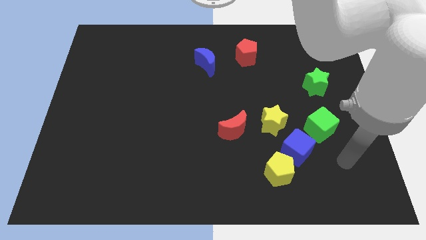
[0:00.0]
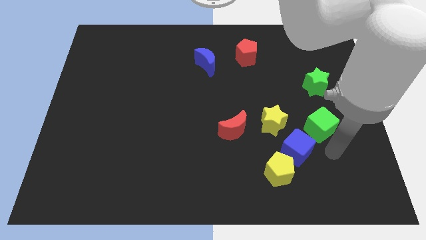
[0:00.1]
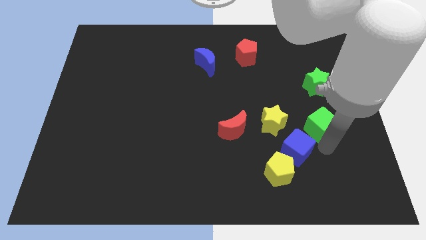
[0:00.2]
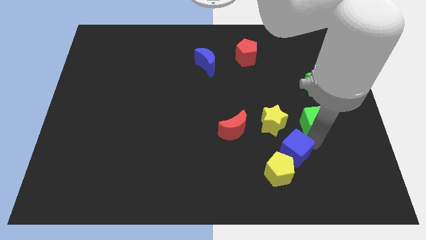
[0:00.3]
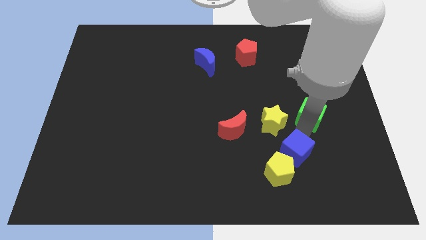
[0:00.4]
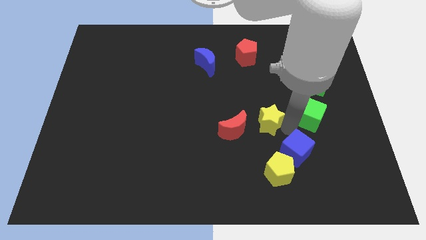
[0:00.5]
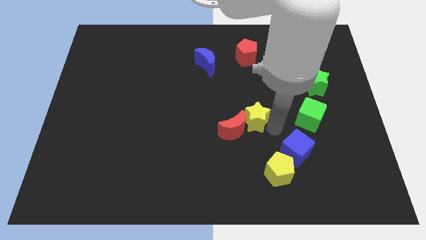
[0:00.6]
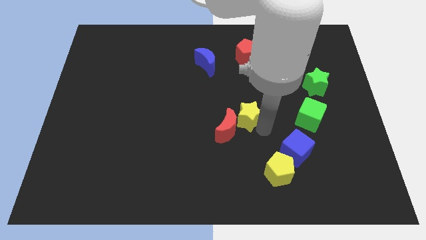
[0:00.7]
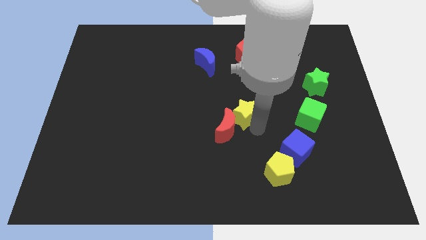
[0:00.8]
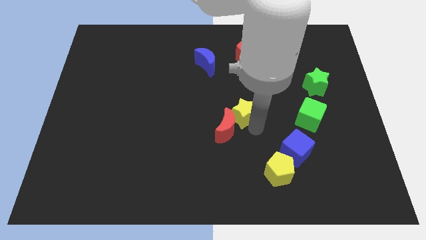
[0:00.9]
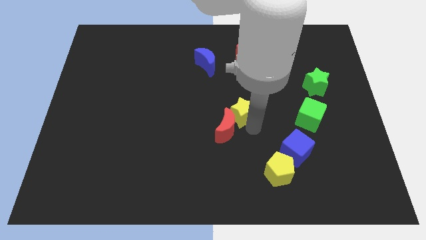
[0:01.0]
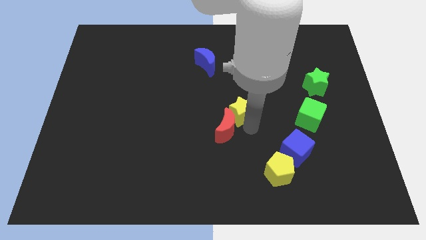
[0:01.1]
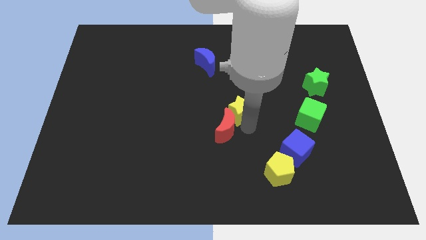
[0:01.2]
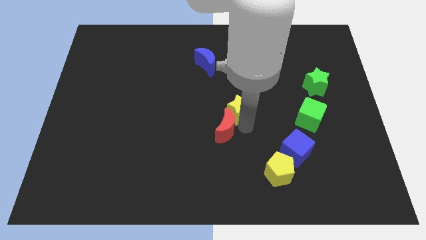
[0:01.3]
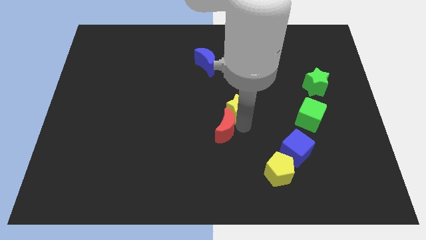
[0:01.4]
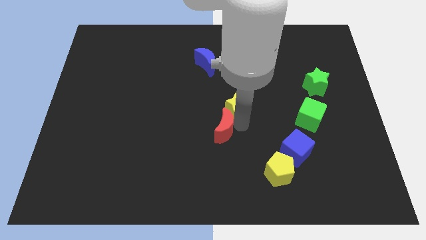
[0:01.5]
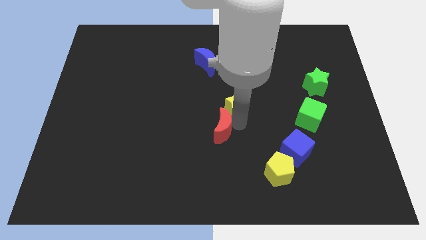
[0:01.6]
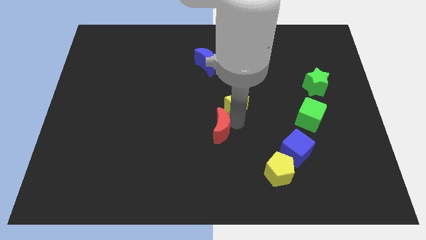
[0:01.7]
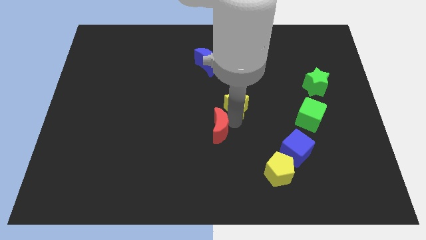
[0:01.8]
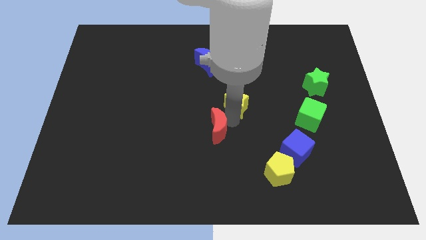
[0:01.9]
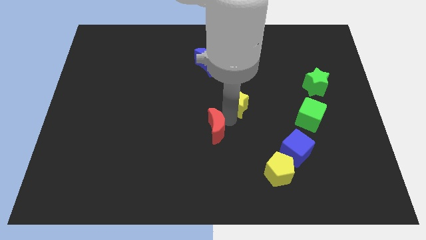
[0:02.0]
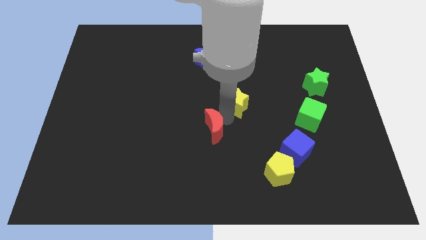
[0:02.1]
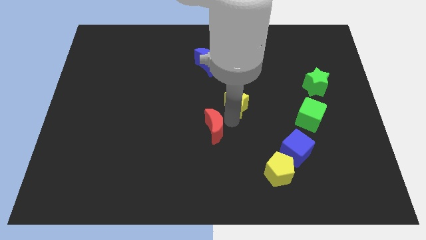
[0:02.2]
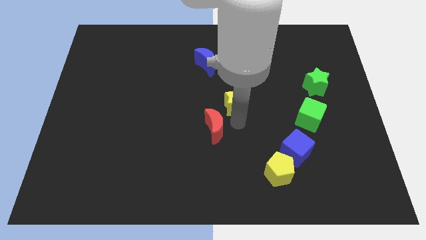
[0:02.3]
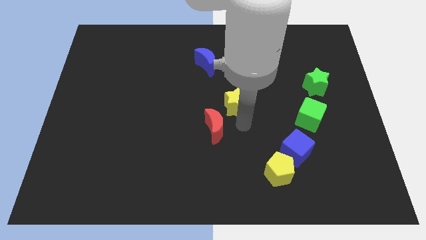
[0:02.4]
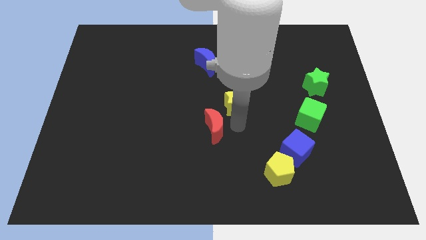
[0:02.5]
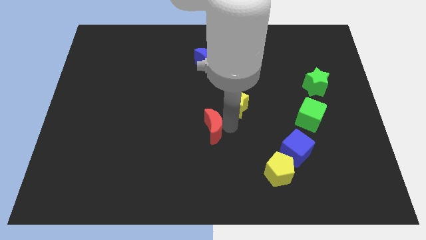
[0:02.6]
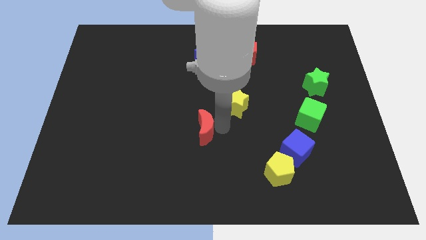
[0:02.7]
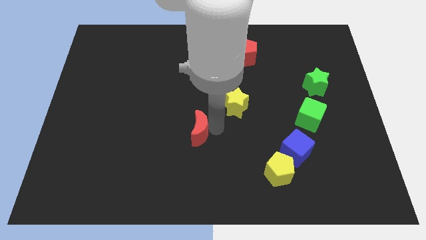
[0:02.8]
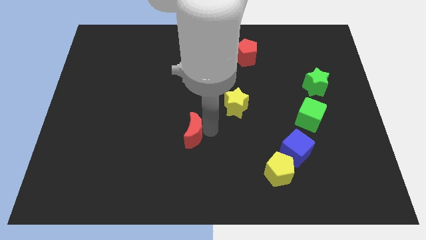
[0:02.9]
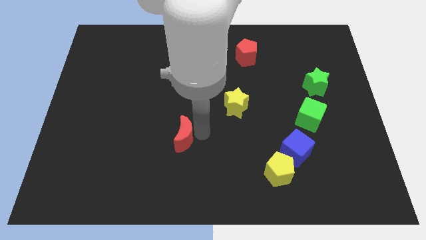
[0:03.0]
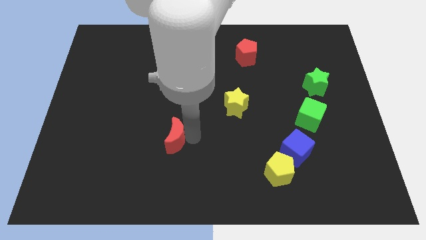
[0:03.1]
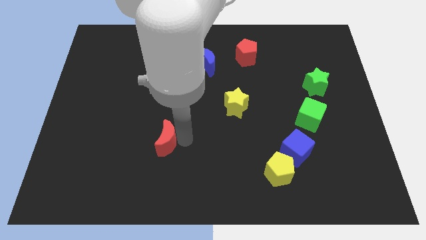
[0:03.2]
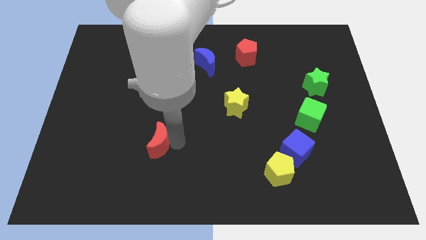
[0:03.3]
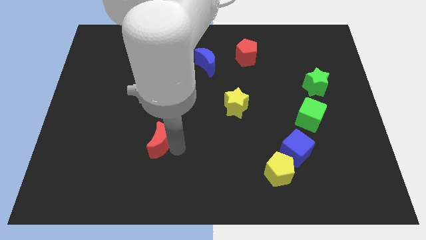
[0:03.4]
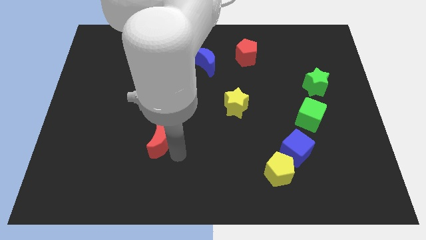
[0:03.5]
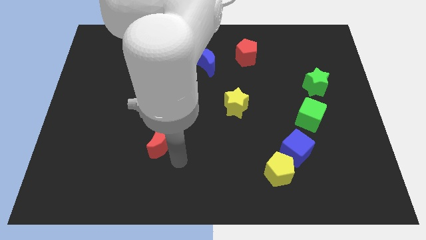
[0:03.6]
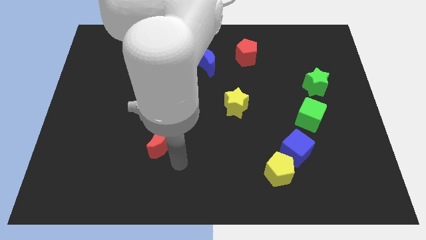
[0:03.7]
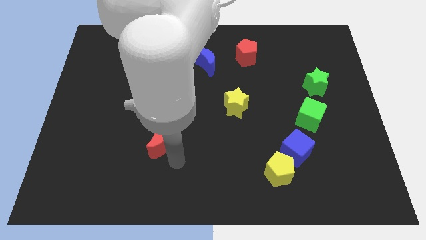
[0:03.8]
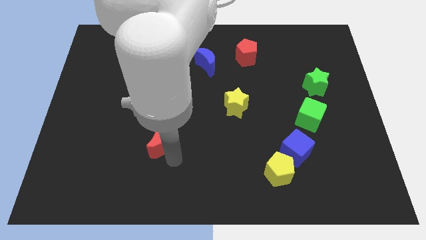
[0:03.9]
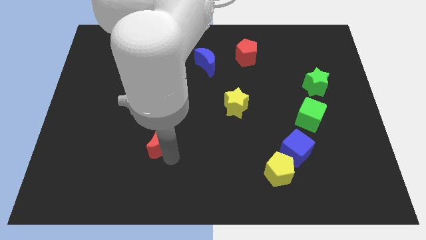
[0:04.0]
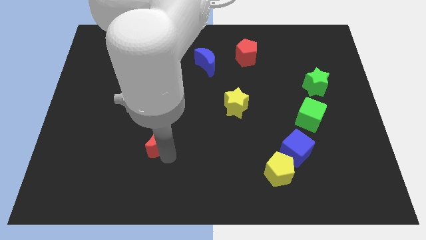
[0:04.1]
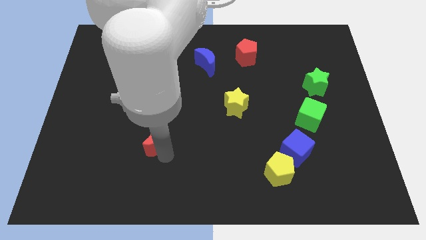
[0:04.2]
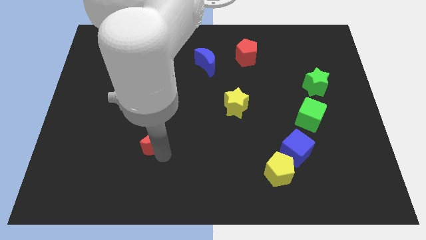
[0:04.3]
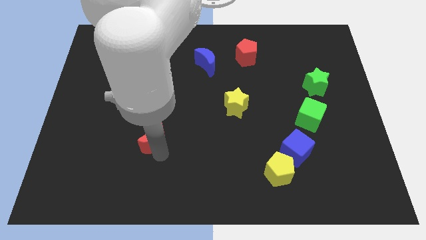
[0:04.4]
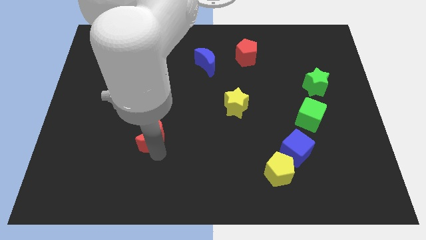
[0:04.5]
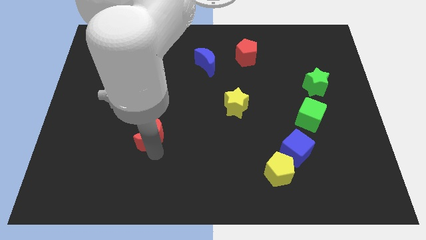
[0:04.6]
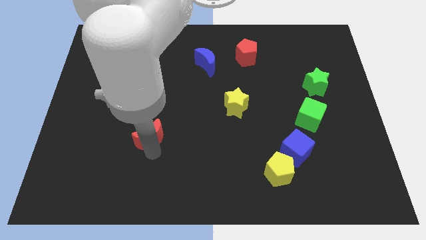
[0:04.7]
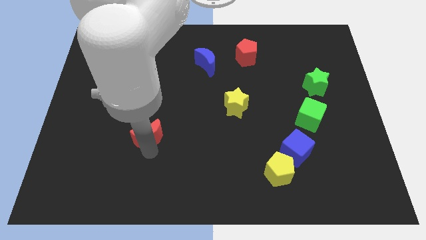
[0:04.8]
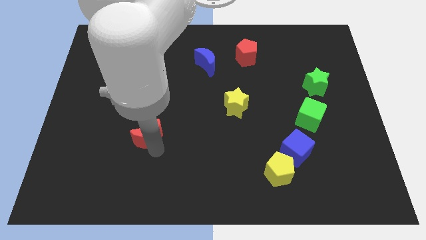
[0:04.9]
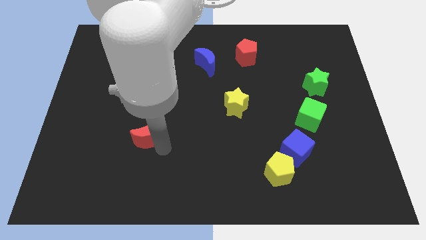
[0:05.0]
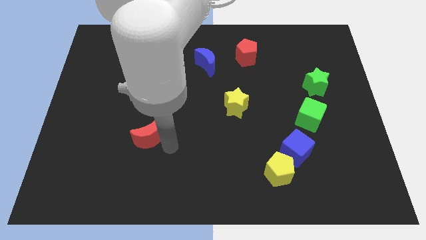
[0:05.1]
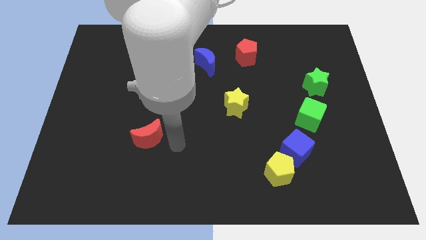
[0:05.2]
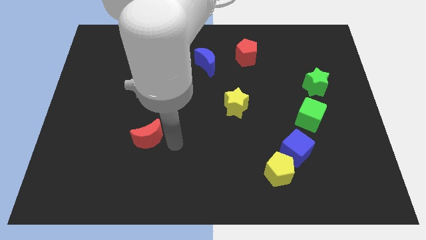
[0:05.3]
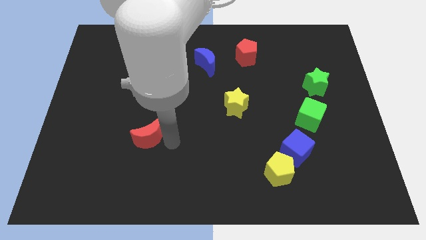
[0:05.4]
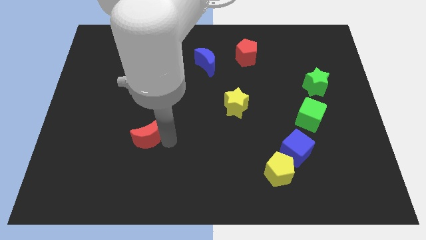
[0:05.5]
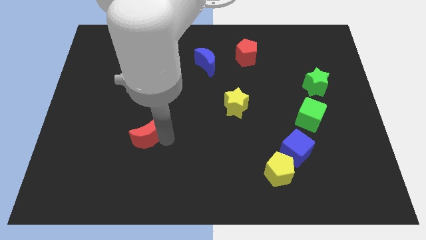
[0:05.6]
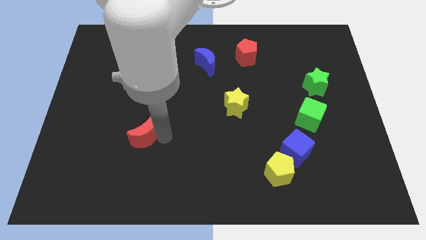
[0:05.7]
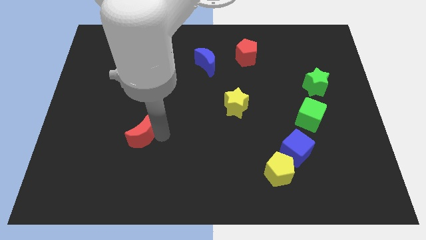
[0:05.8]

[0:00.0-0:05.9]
slide the red moon to the left

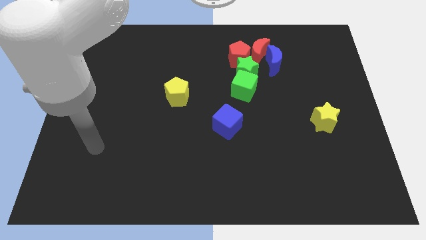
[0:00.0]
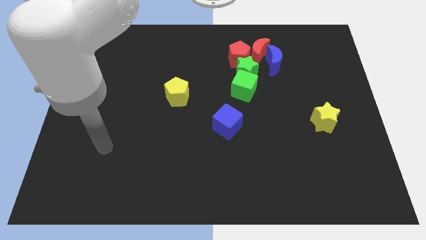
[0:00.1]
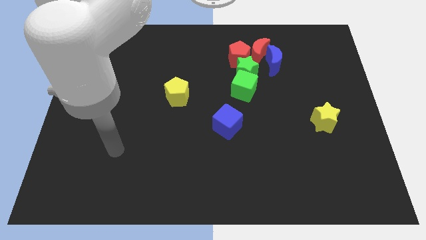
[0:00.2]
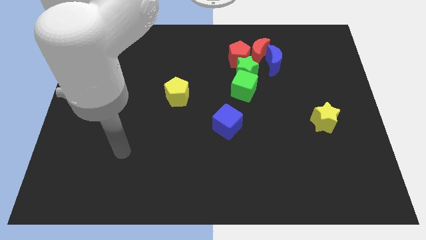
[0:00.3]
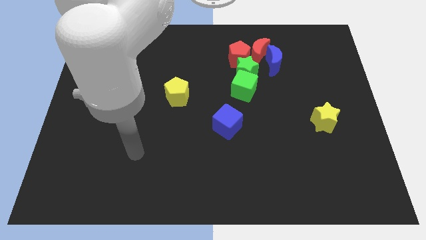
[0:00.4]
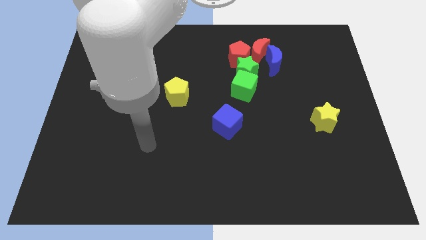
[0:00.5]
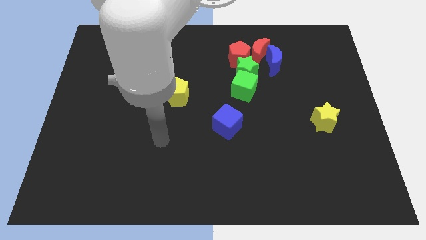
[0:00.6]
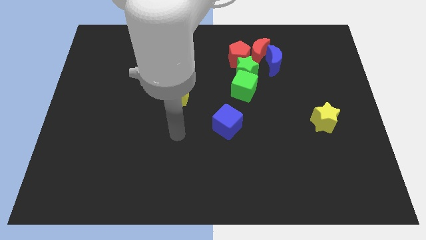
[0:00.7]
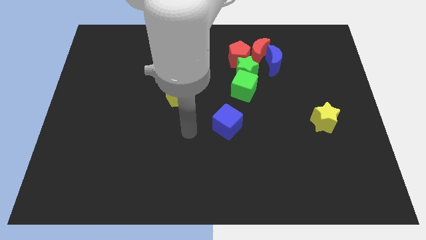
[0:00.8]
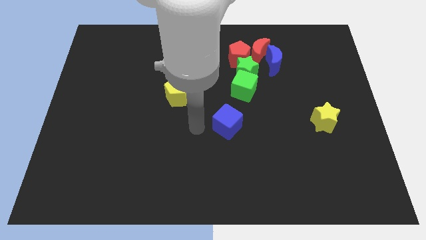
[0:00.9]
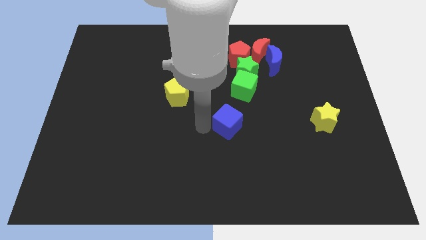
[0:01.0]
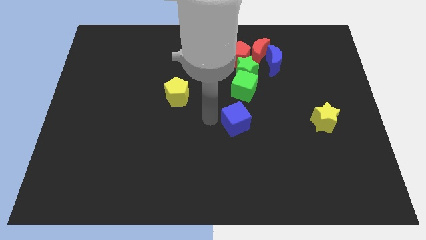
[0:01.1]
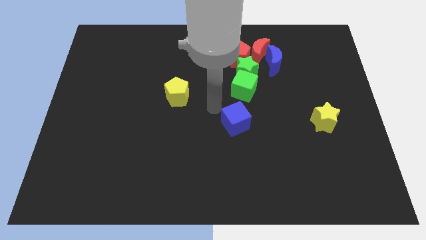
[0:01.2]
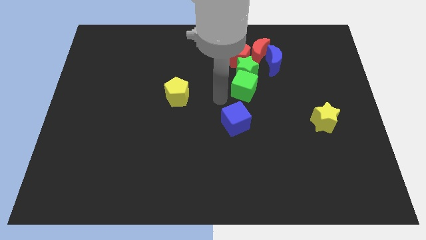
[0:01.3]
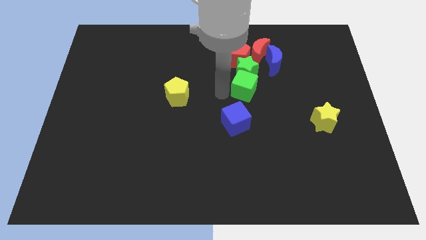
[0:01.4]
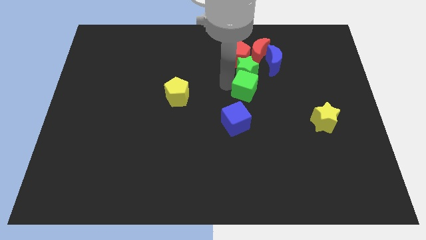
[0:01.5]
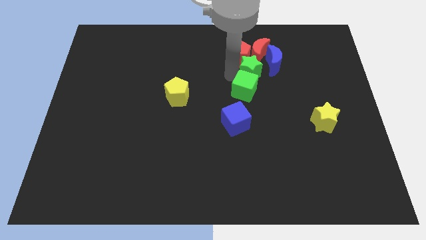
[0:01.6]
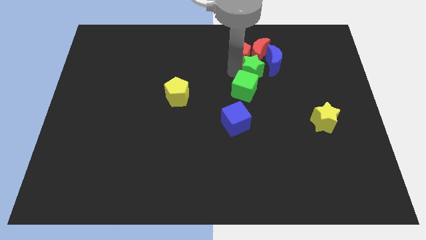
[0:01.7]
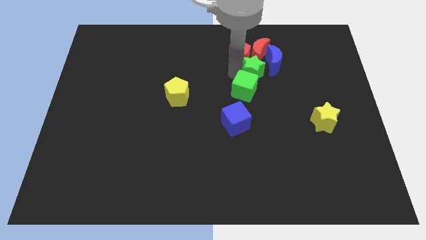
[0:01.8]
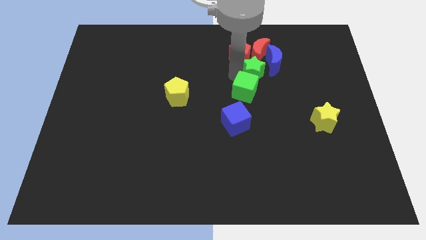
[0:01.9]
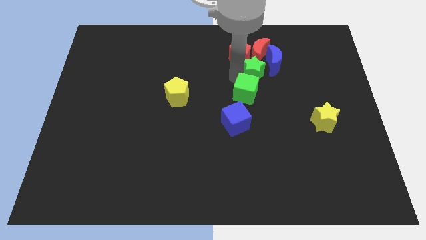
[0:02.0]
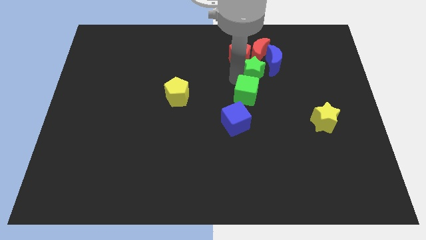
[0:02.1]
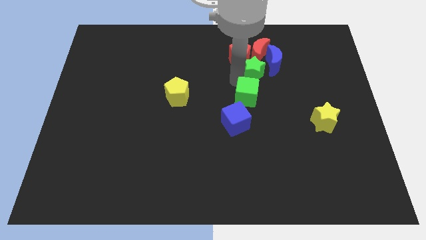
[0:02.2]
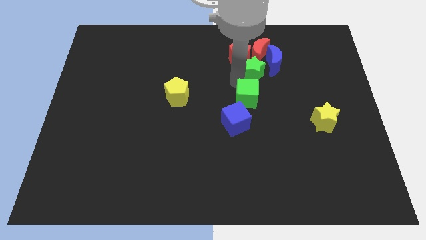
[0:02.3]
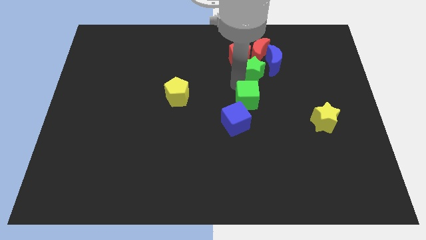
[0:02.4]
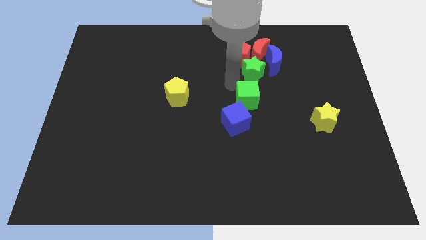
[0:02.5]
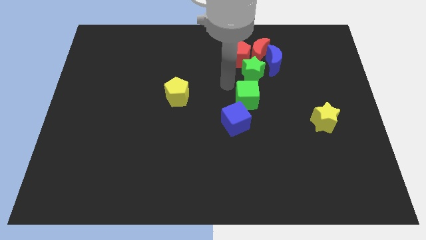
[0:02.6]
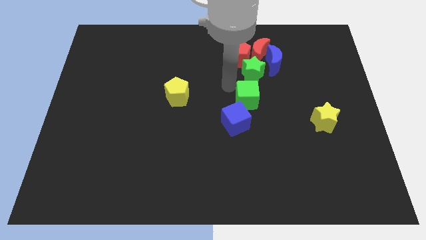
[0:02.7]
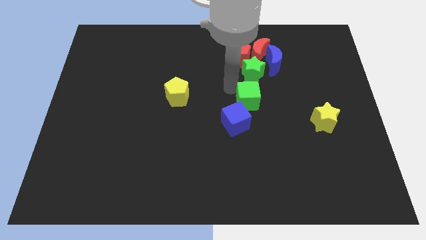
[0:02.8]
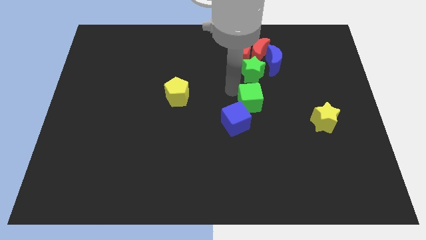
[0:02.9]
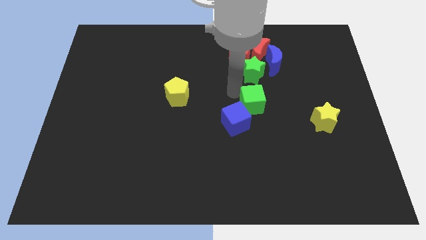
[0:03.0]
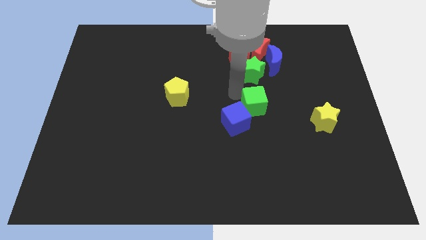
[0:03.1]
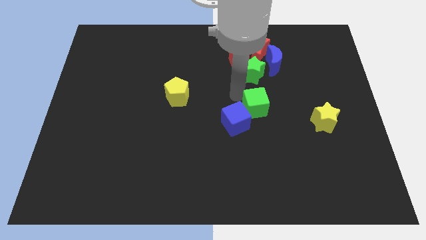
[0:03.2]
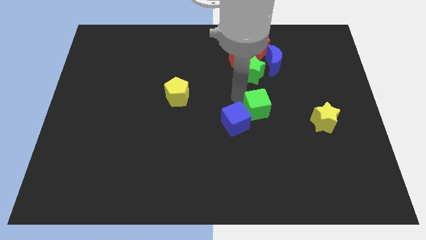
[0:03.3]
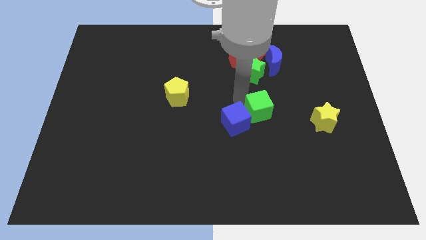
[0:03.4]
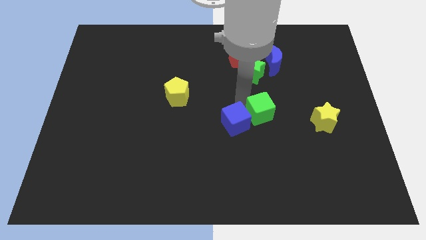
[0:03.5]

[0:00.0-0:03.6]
push the green cube a little diagonally downwards and to the right
